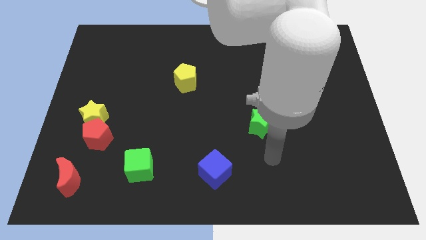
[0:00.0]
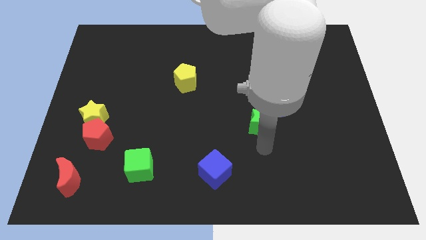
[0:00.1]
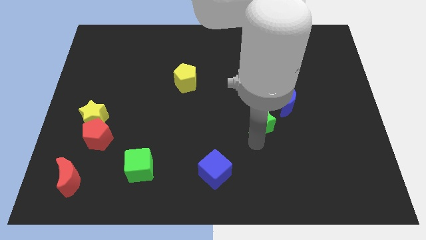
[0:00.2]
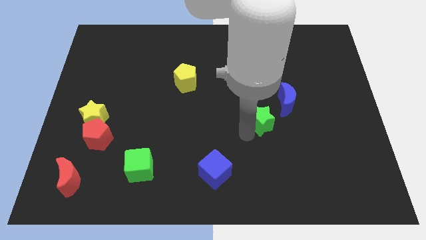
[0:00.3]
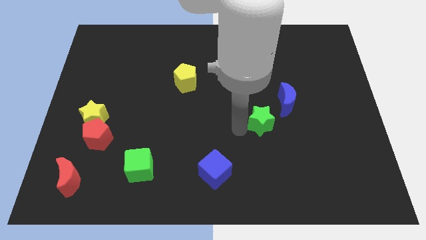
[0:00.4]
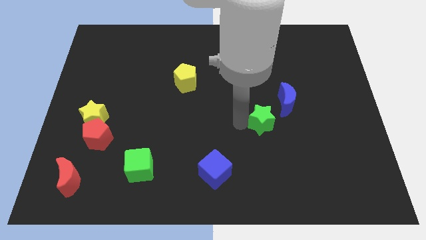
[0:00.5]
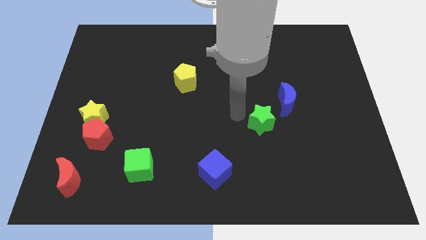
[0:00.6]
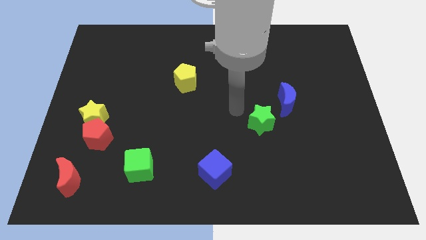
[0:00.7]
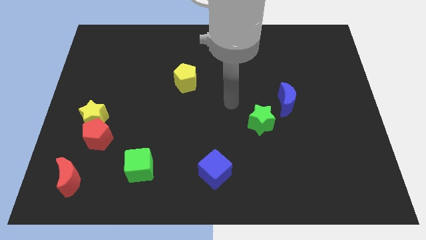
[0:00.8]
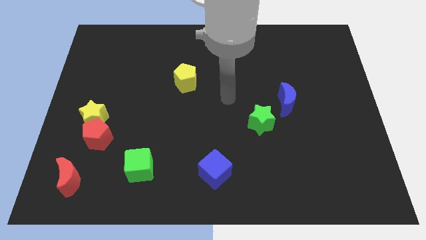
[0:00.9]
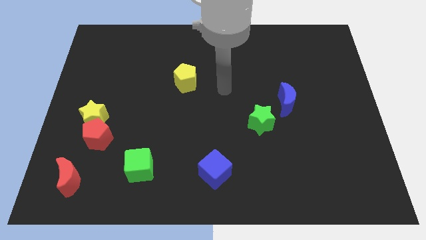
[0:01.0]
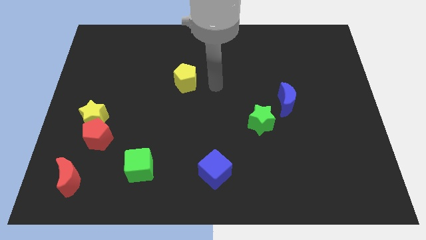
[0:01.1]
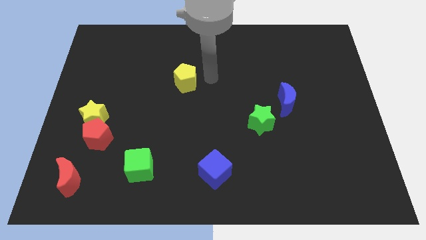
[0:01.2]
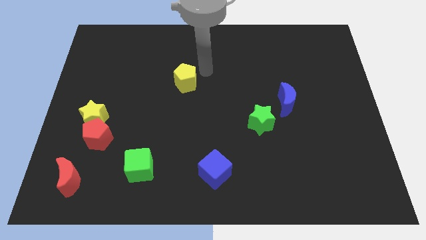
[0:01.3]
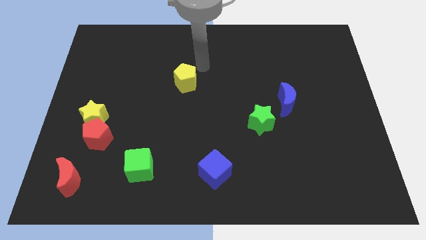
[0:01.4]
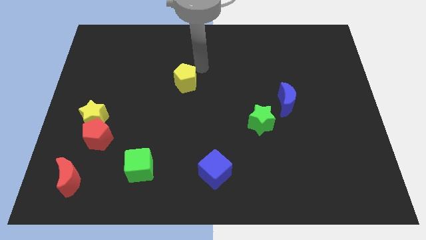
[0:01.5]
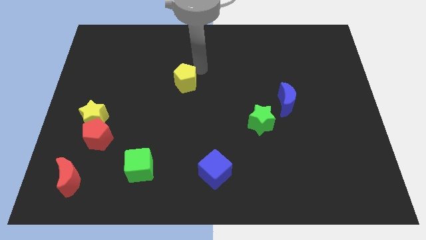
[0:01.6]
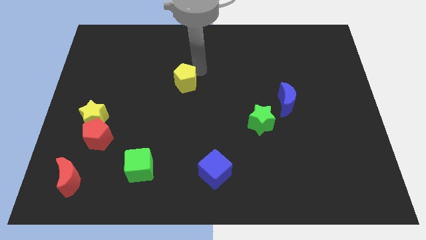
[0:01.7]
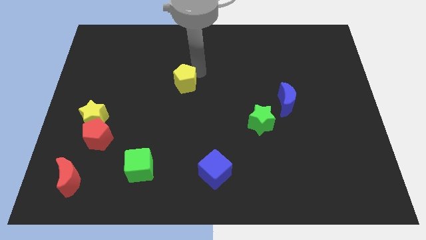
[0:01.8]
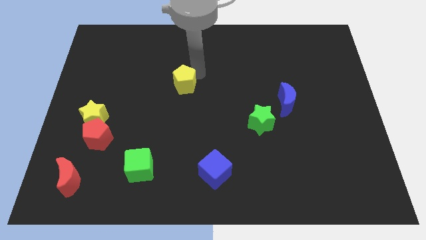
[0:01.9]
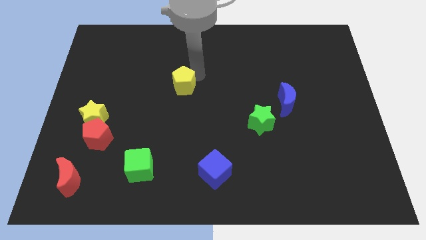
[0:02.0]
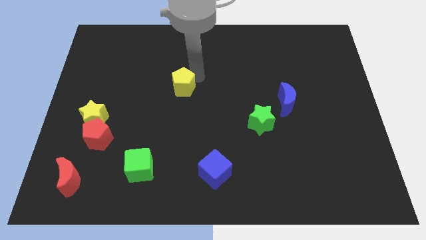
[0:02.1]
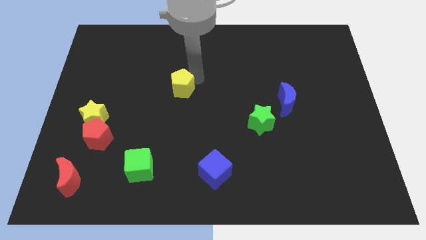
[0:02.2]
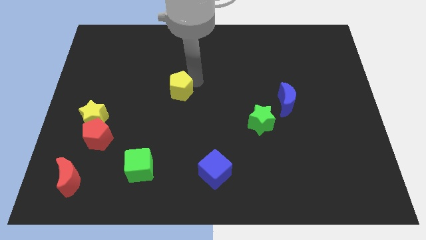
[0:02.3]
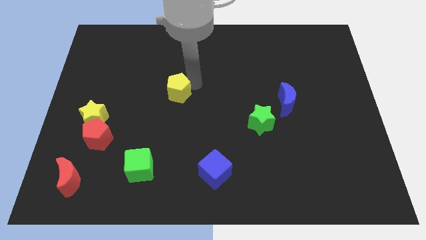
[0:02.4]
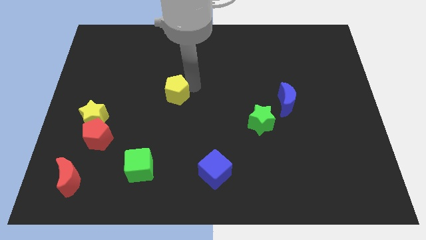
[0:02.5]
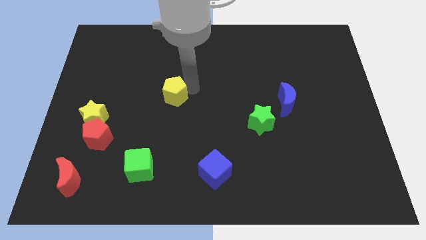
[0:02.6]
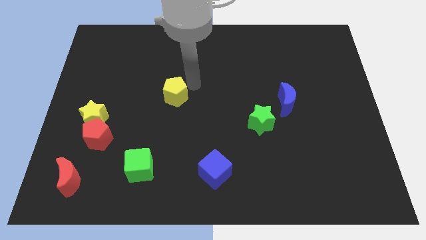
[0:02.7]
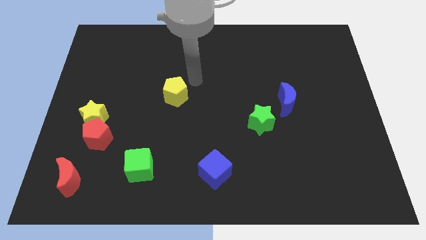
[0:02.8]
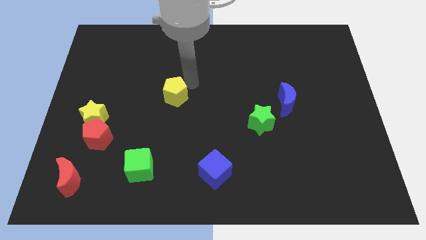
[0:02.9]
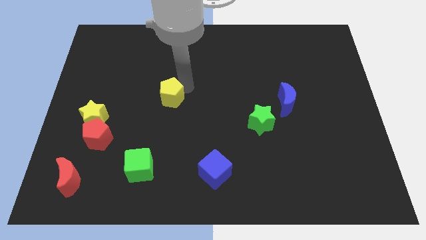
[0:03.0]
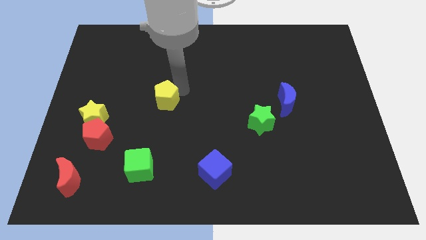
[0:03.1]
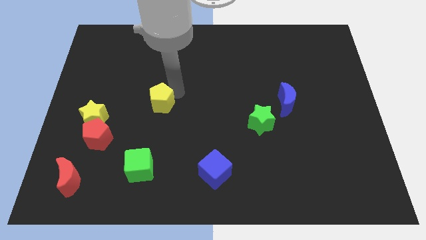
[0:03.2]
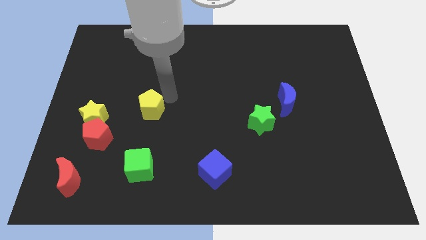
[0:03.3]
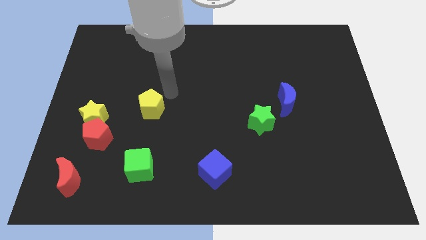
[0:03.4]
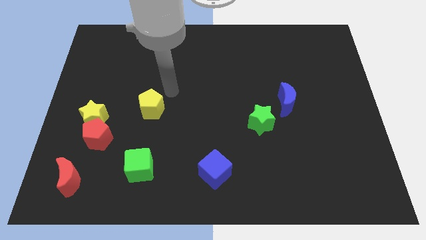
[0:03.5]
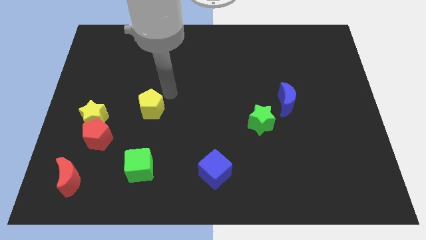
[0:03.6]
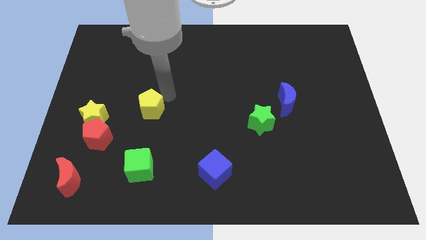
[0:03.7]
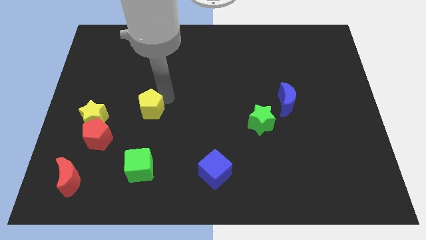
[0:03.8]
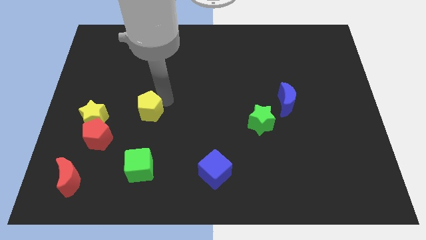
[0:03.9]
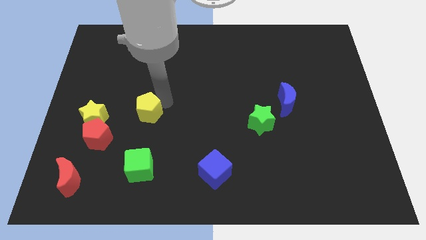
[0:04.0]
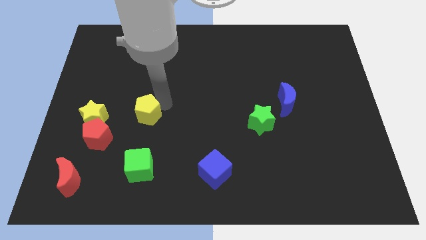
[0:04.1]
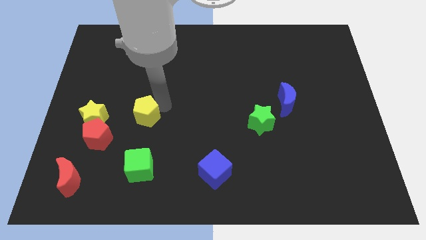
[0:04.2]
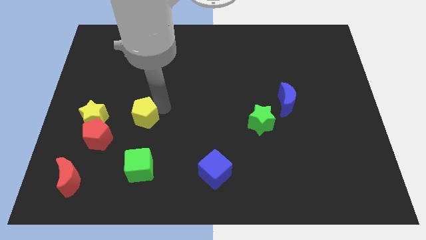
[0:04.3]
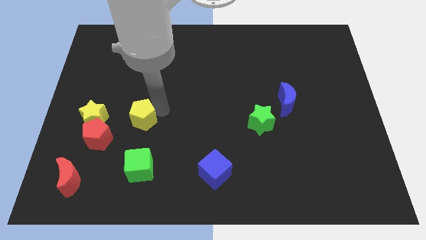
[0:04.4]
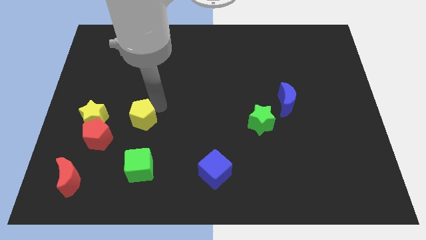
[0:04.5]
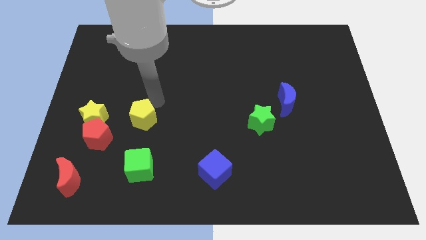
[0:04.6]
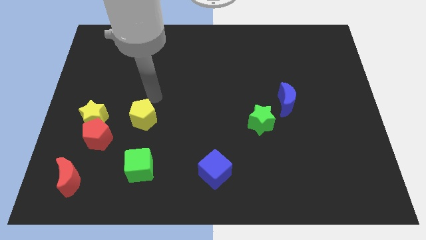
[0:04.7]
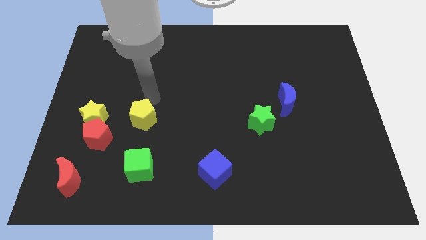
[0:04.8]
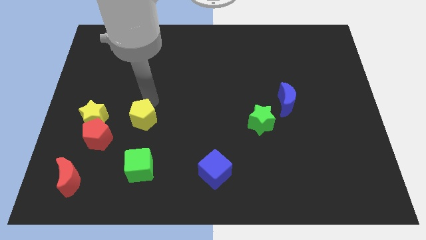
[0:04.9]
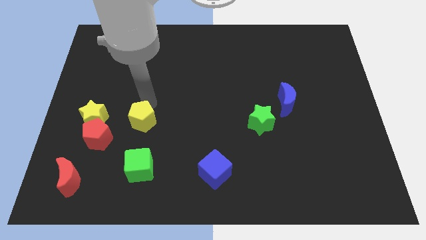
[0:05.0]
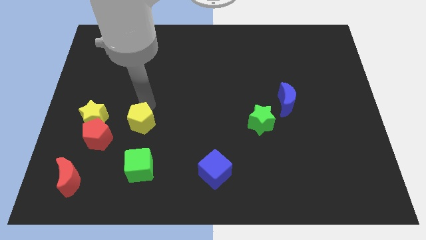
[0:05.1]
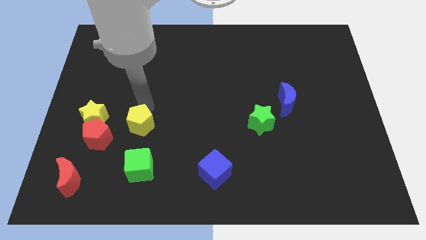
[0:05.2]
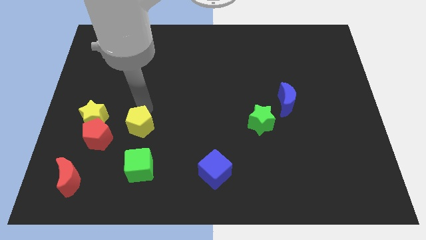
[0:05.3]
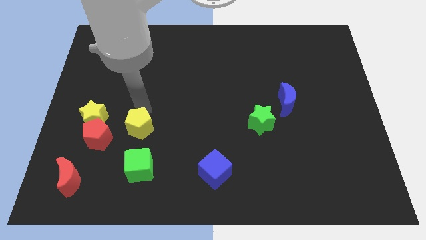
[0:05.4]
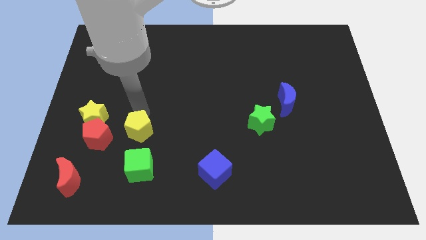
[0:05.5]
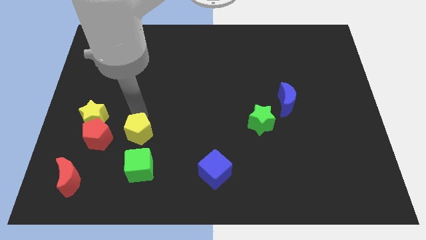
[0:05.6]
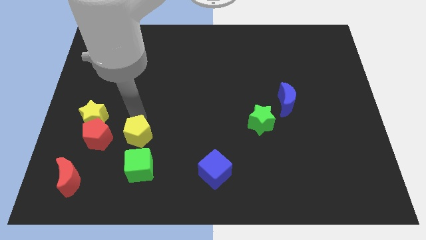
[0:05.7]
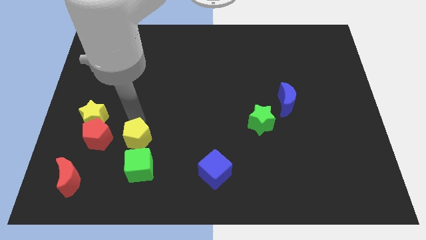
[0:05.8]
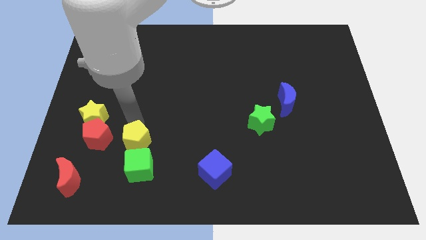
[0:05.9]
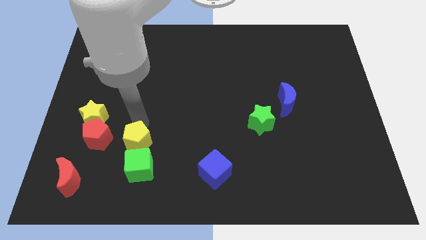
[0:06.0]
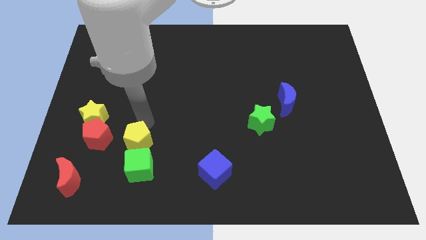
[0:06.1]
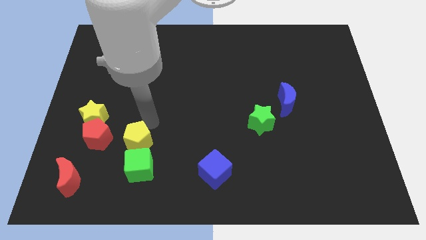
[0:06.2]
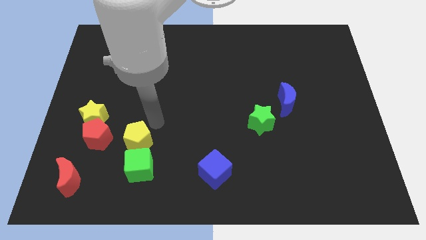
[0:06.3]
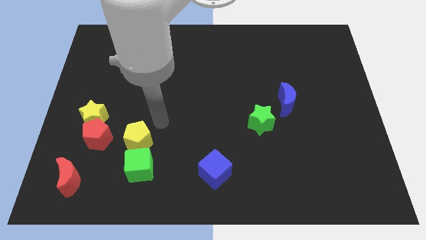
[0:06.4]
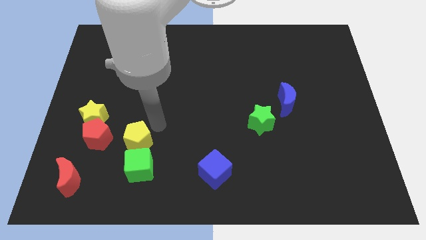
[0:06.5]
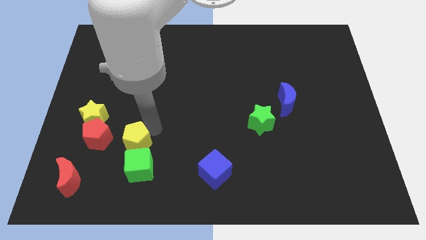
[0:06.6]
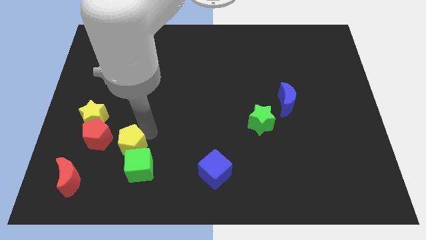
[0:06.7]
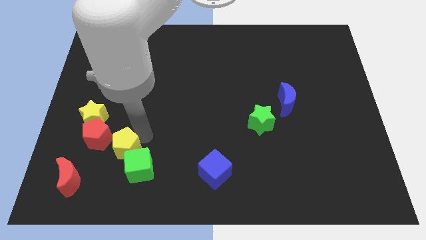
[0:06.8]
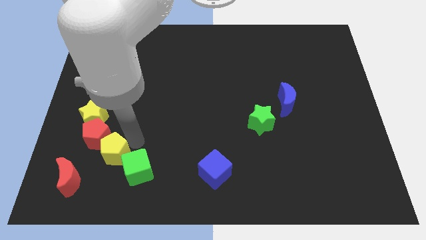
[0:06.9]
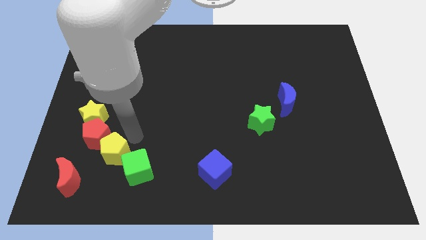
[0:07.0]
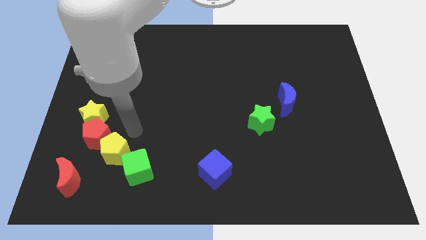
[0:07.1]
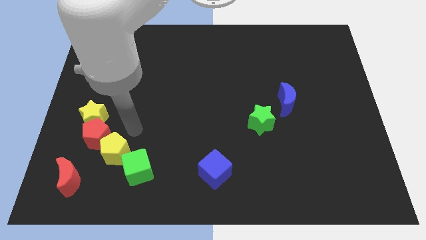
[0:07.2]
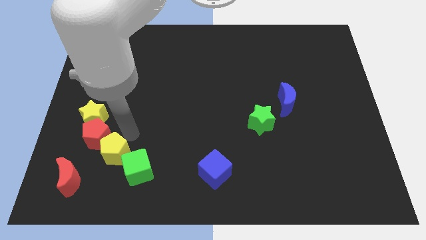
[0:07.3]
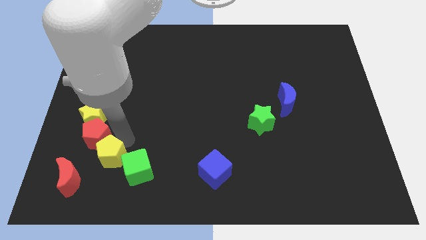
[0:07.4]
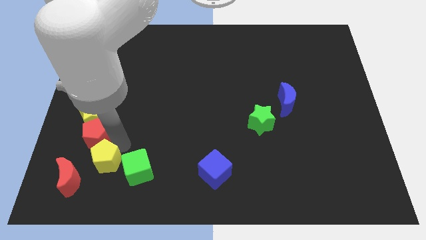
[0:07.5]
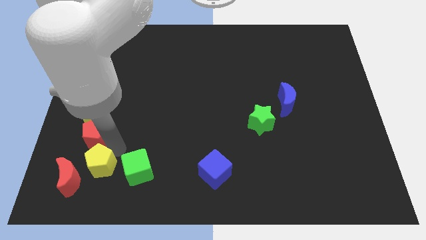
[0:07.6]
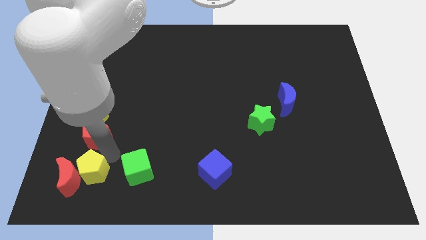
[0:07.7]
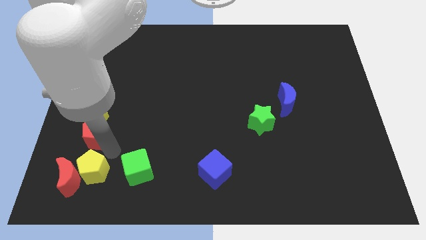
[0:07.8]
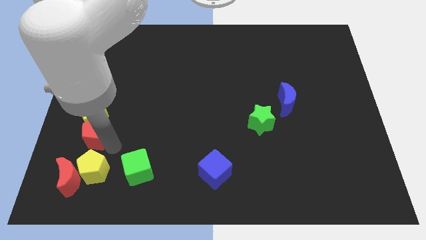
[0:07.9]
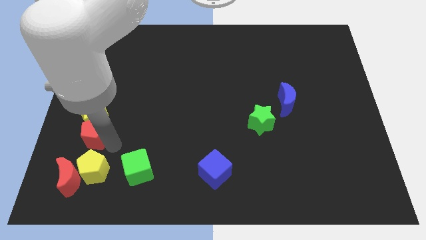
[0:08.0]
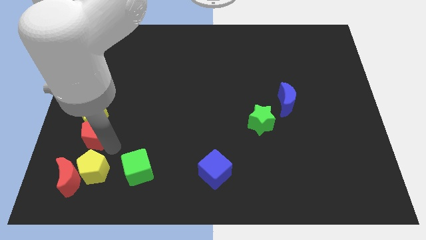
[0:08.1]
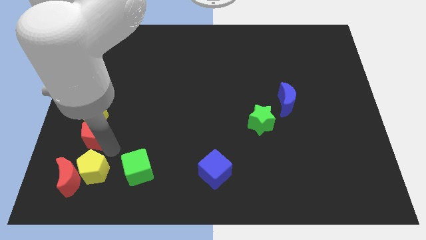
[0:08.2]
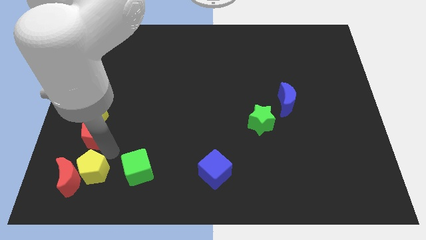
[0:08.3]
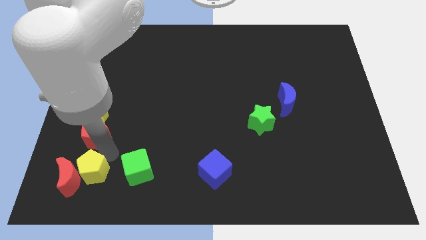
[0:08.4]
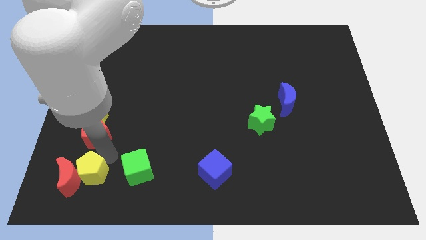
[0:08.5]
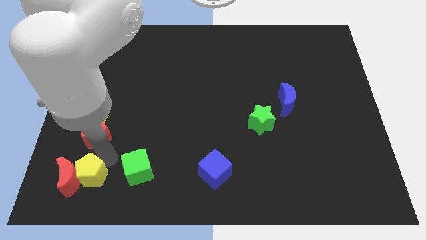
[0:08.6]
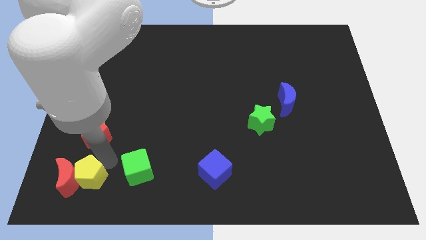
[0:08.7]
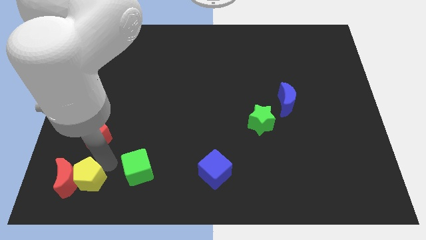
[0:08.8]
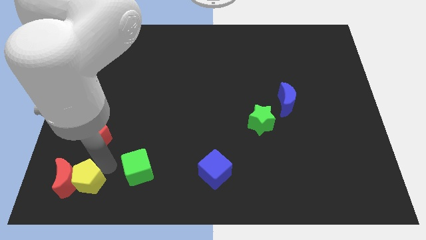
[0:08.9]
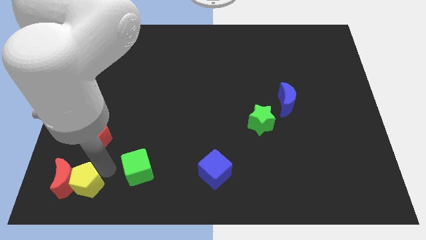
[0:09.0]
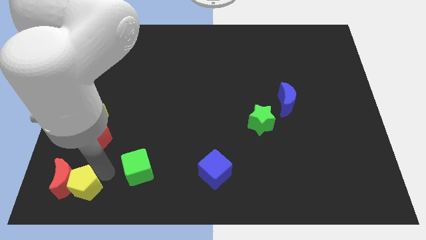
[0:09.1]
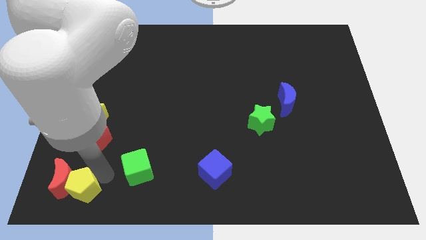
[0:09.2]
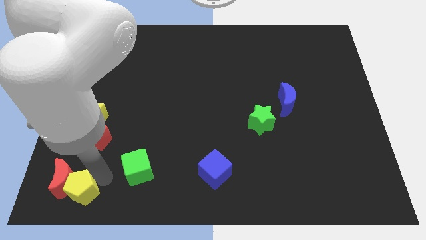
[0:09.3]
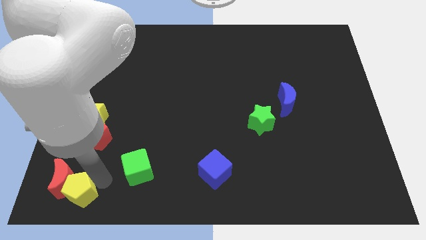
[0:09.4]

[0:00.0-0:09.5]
slide the yellow pentagon to the bottom left of the board
